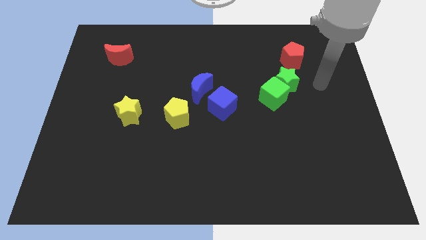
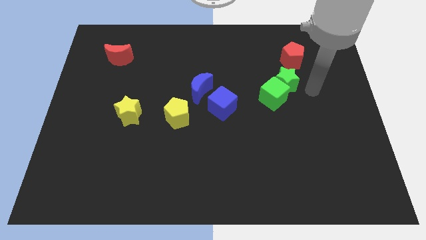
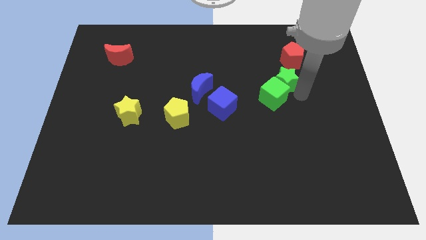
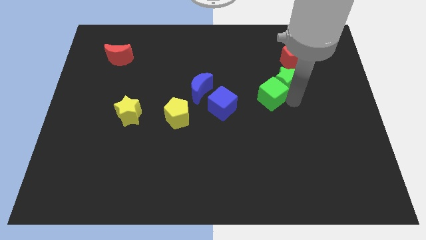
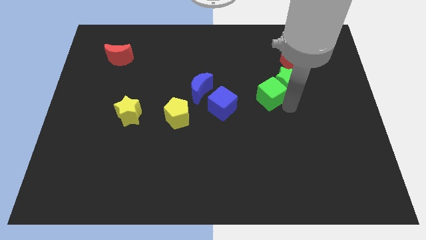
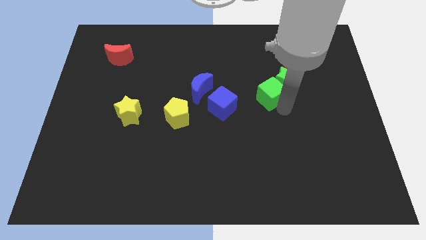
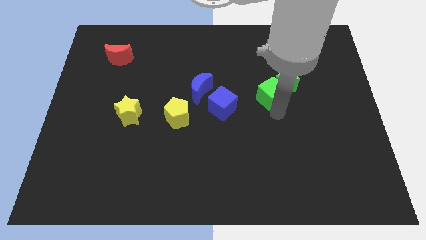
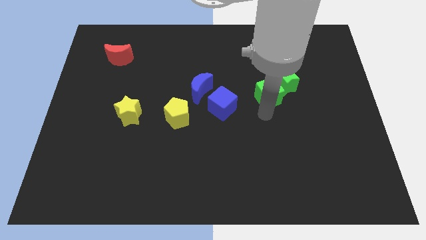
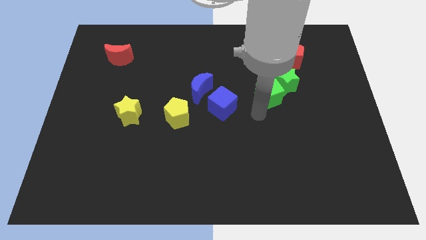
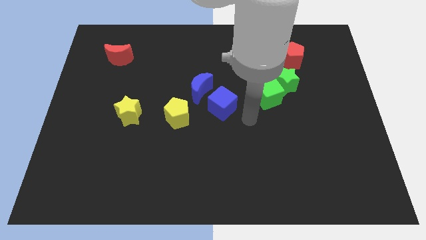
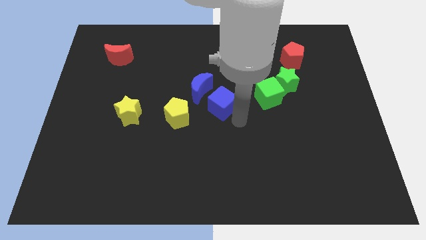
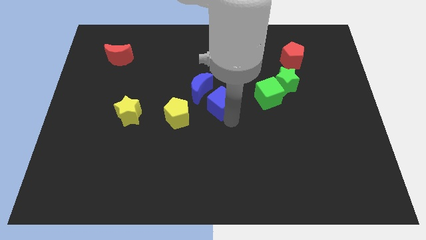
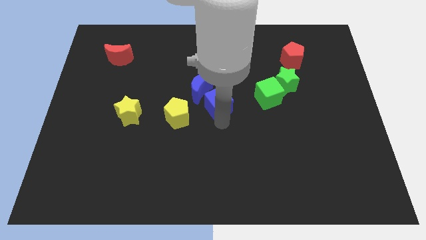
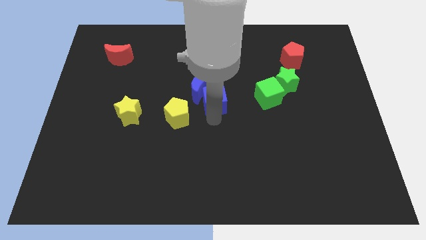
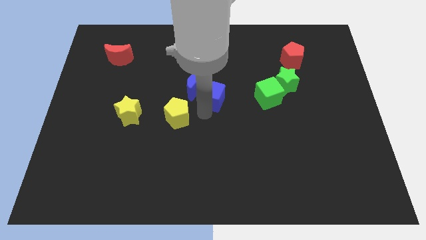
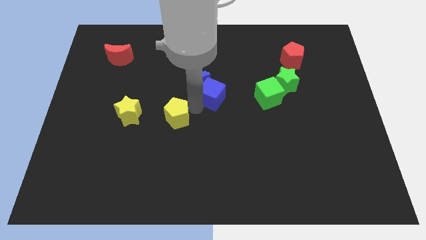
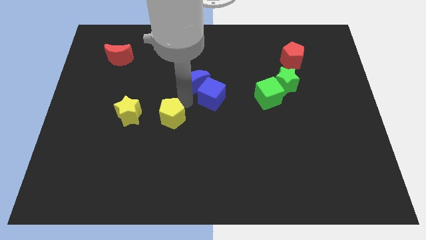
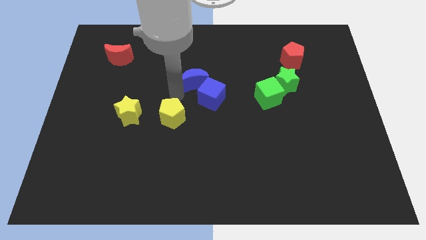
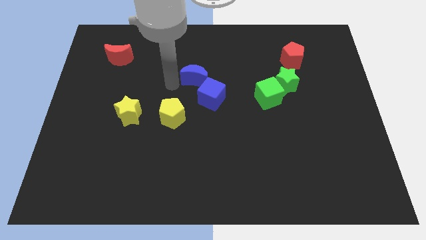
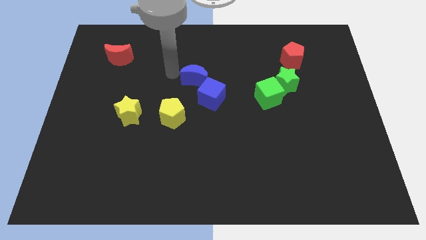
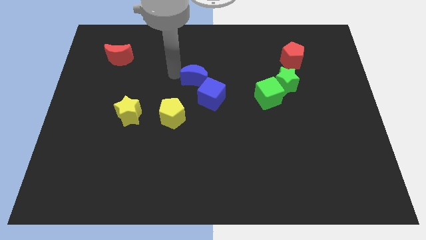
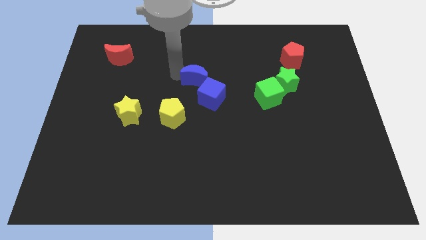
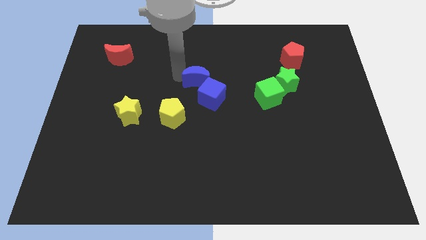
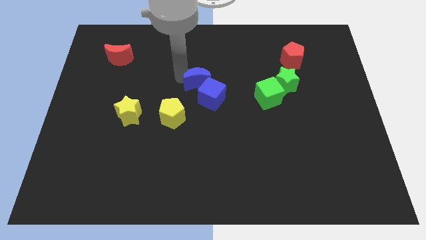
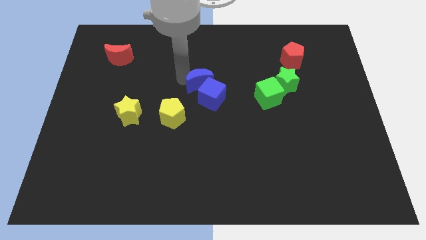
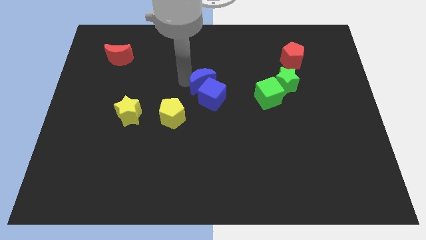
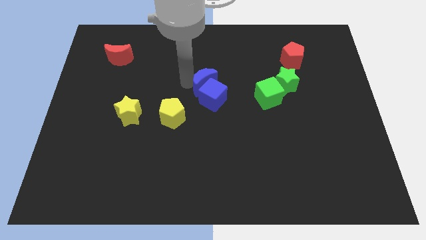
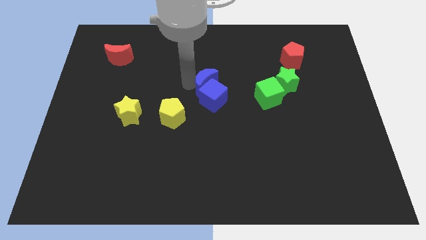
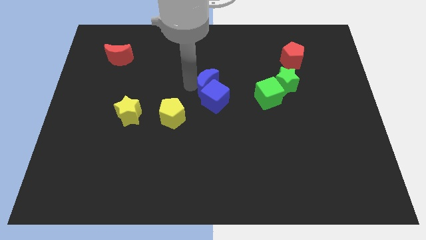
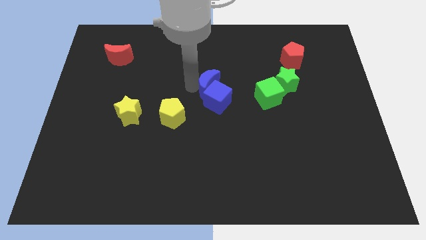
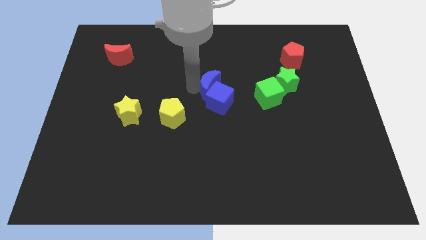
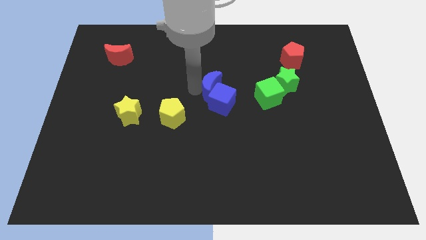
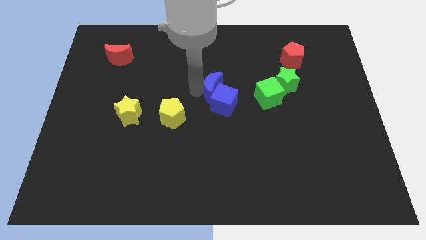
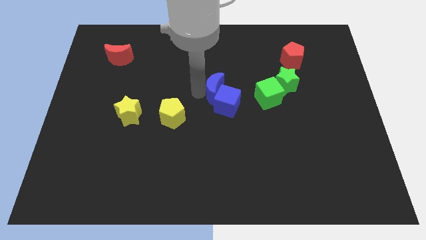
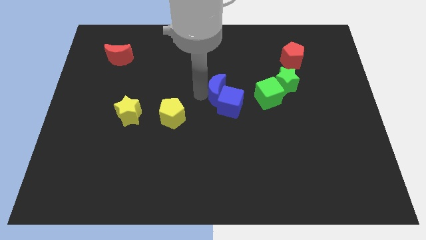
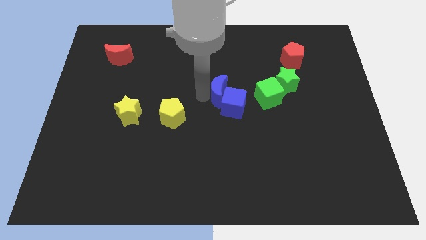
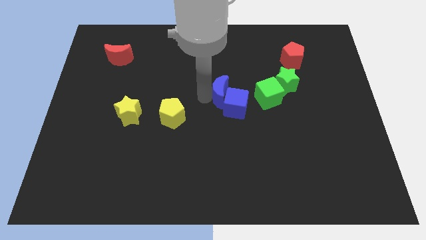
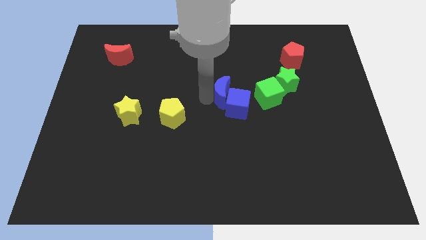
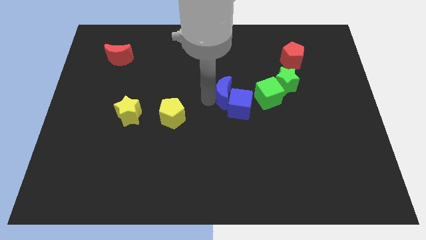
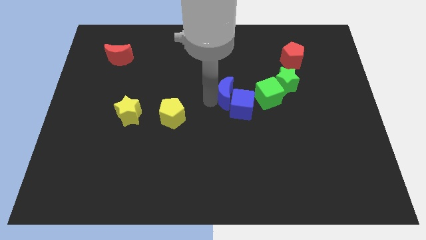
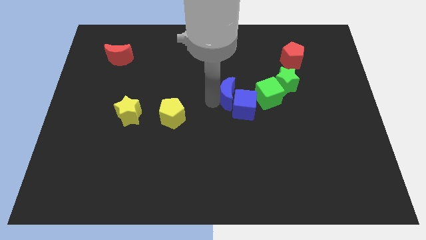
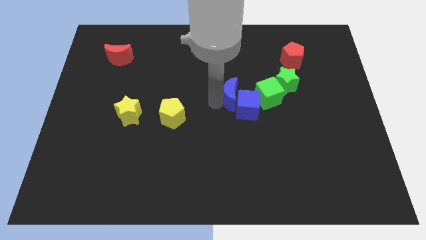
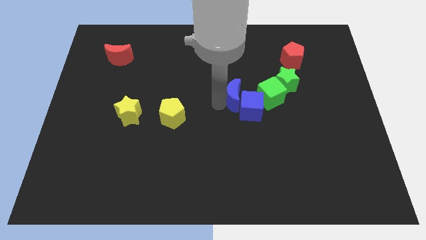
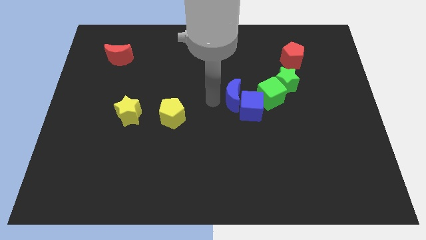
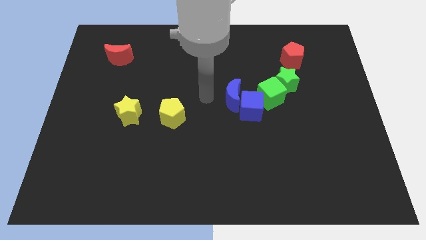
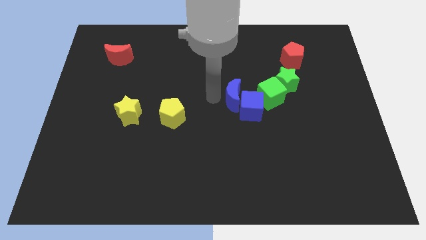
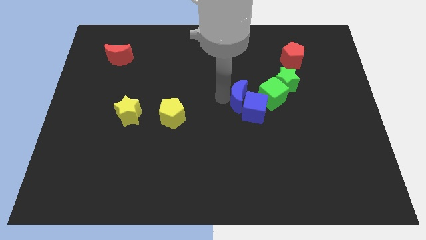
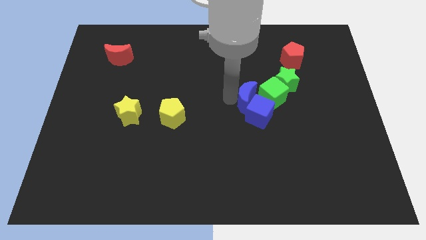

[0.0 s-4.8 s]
put the blue moon diagonally down and to the left of the green star

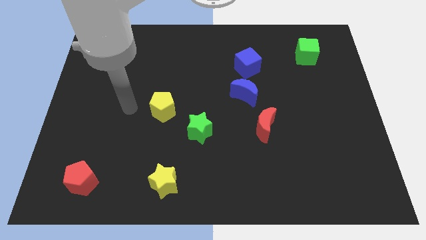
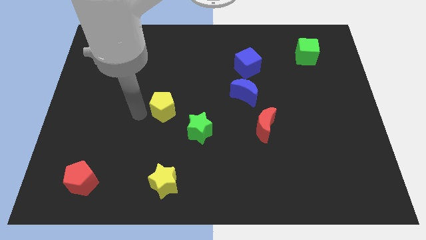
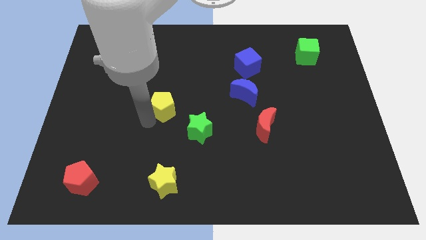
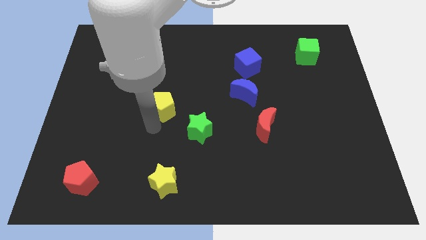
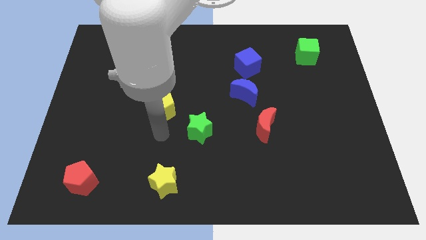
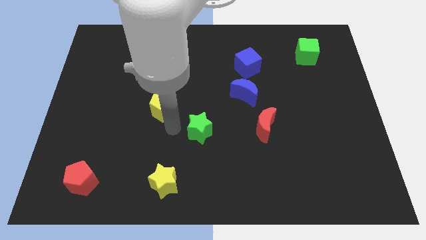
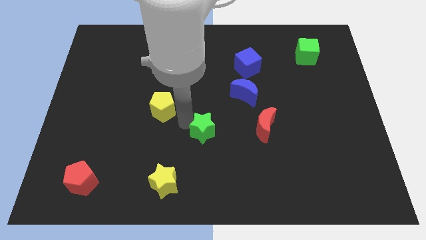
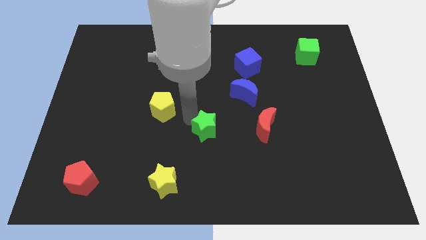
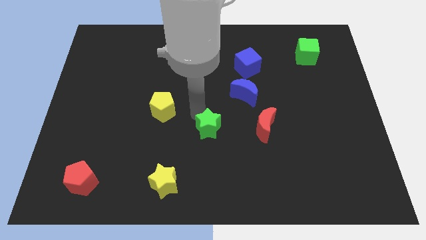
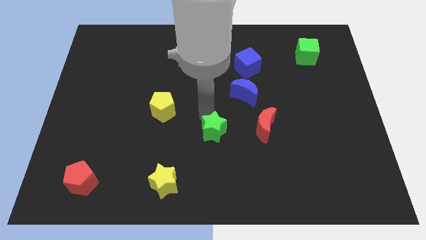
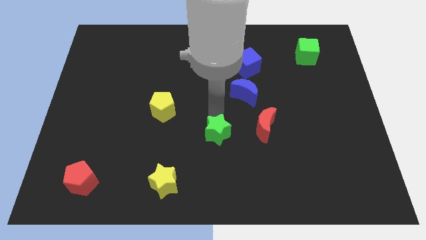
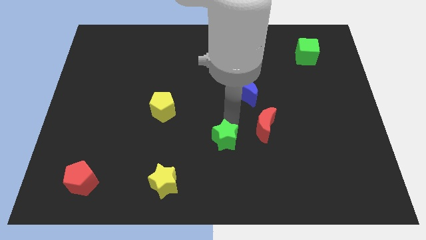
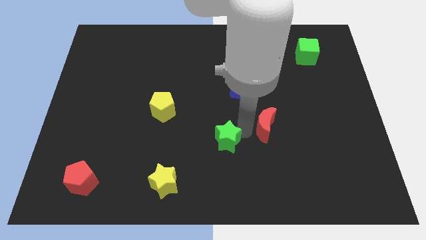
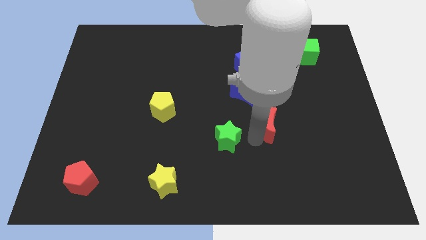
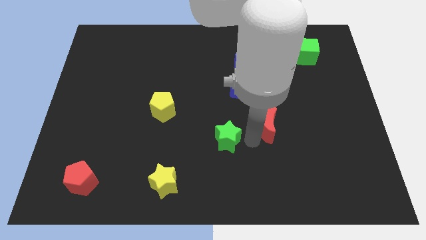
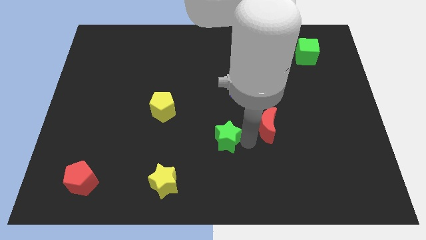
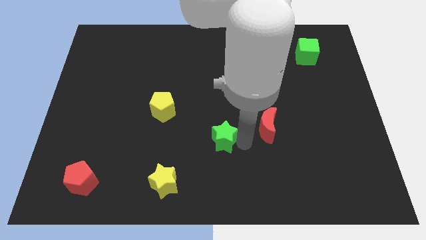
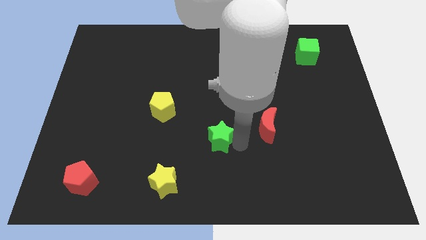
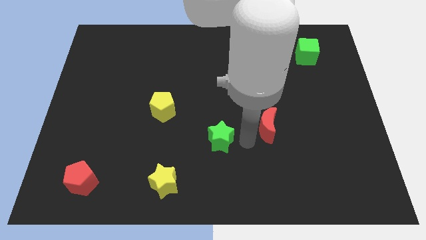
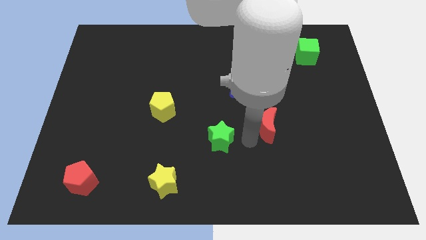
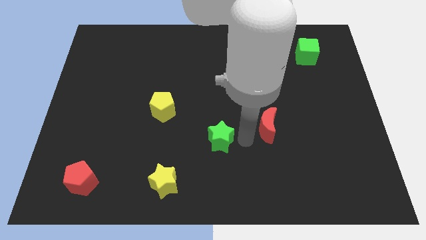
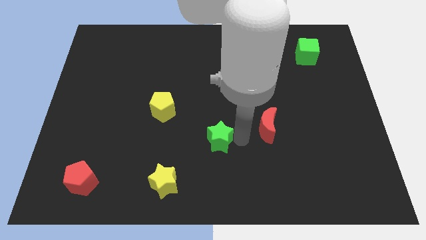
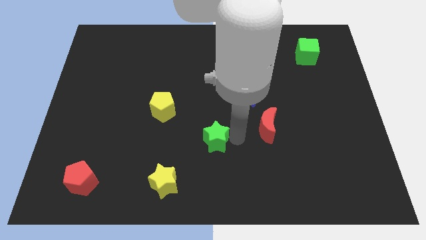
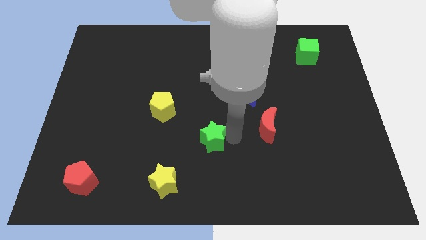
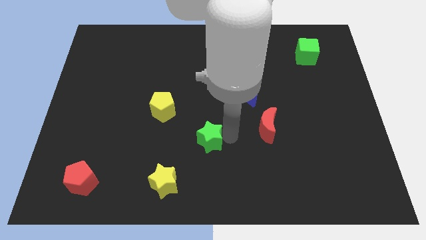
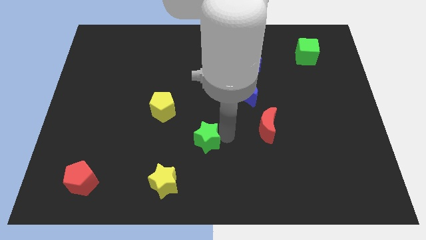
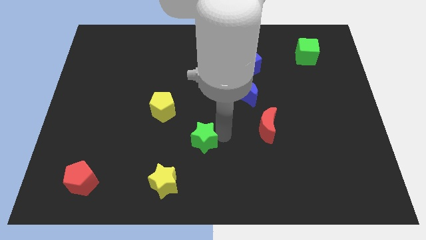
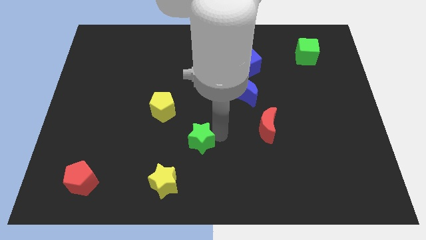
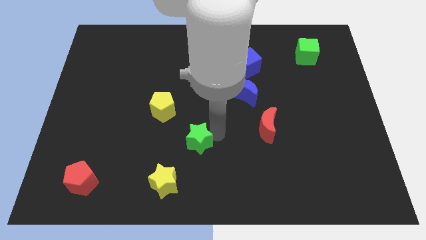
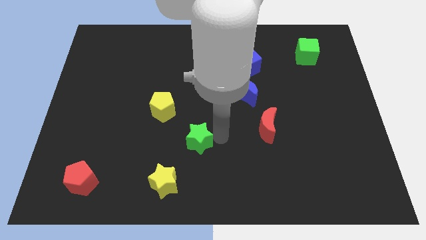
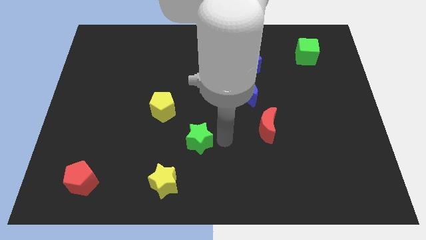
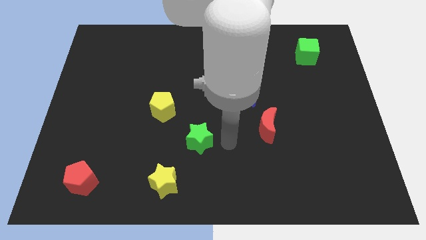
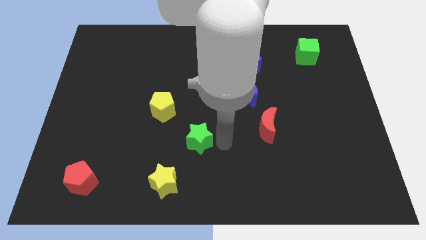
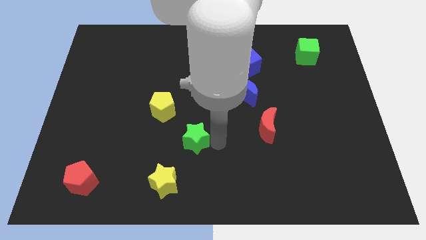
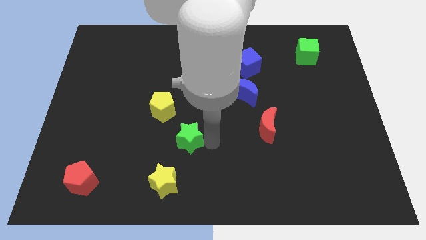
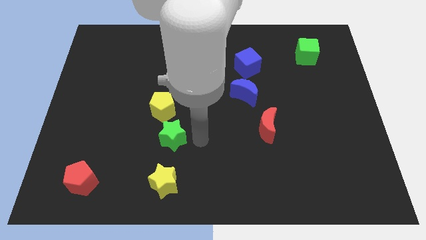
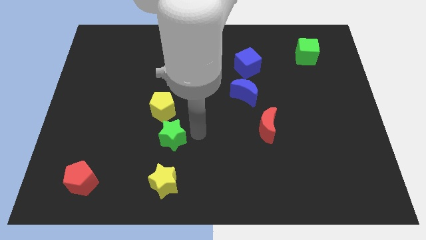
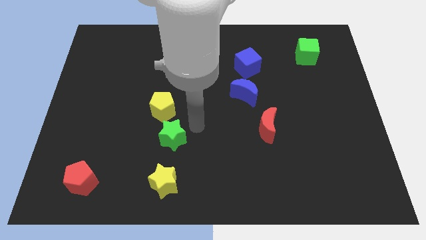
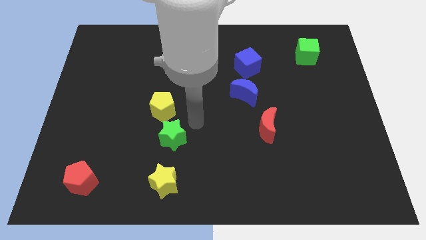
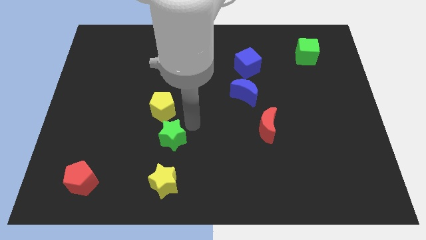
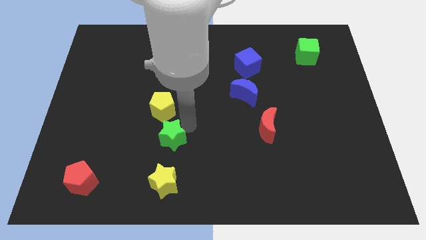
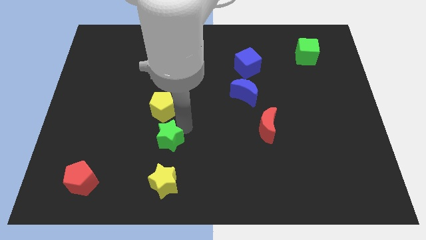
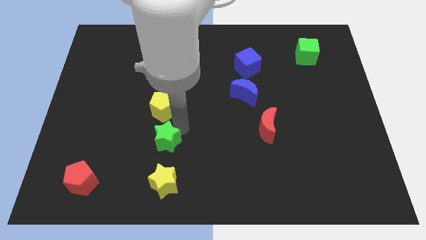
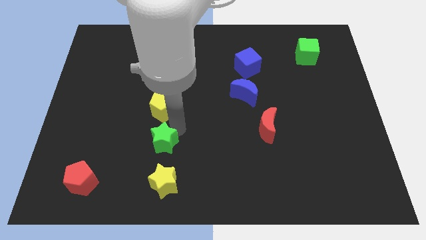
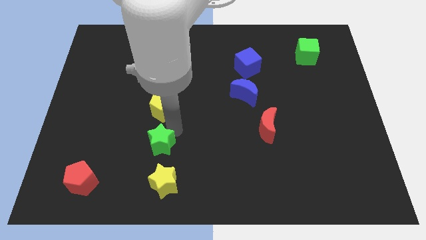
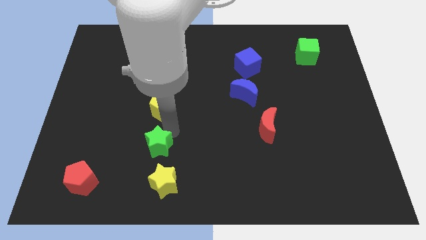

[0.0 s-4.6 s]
push the green star to the top left of the yellow star
